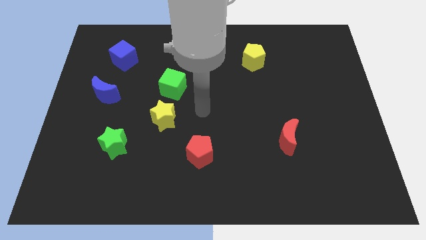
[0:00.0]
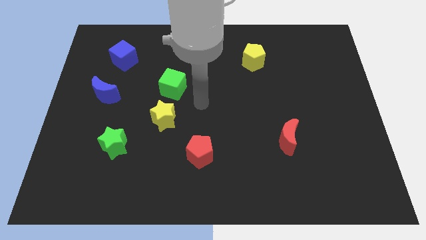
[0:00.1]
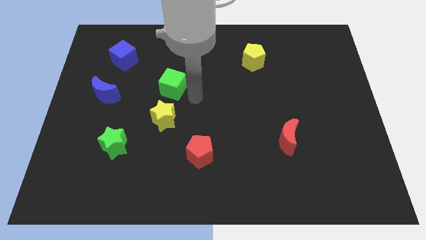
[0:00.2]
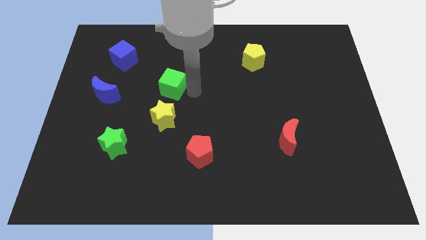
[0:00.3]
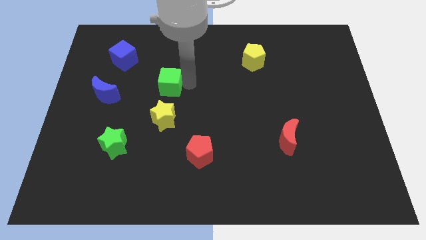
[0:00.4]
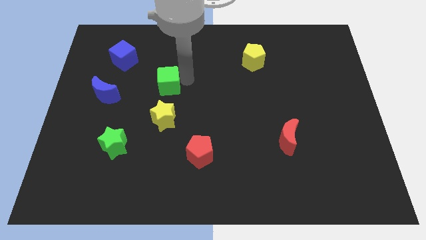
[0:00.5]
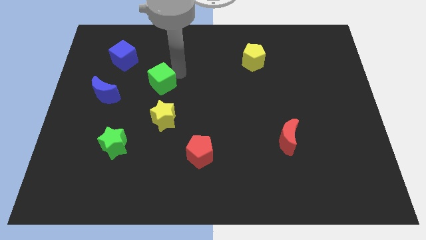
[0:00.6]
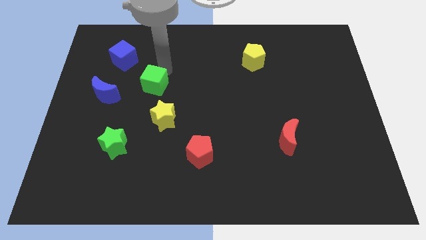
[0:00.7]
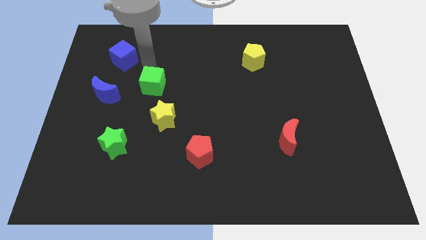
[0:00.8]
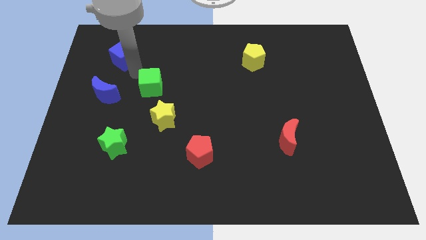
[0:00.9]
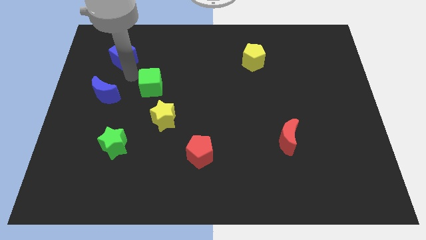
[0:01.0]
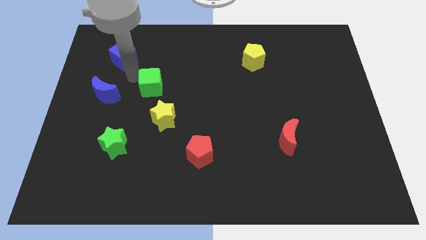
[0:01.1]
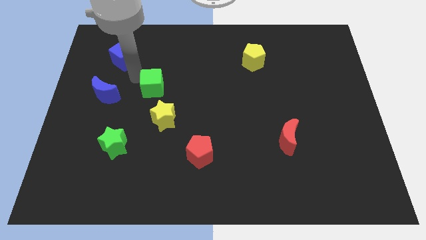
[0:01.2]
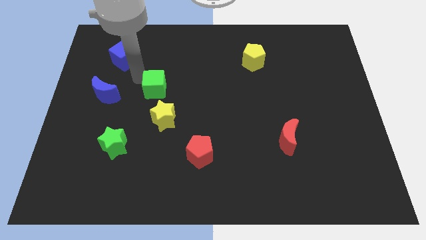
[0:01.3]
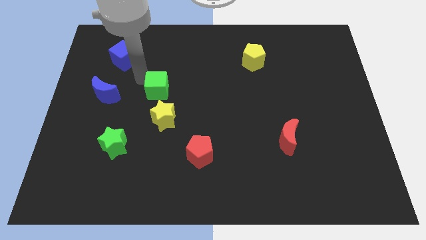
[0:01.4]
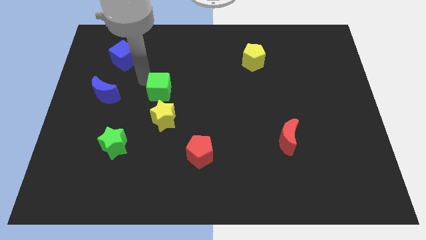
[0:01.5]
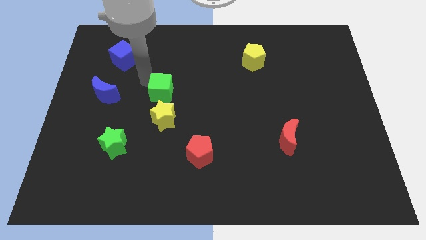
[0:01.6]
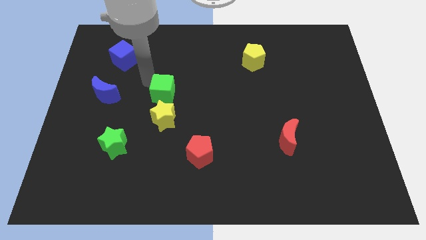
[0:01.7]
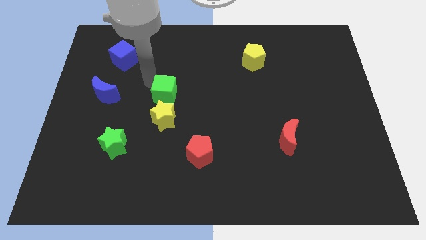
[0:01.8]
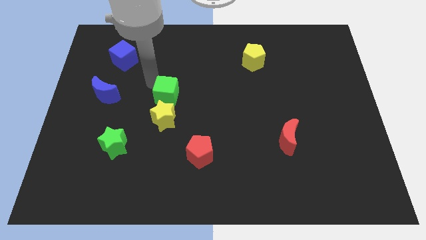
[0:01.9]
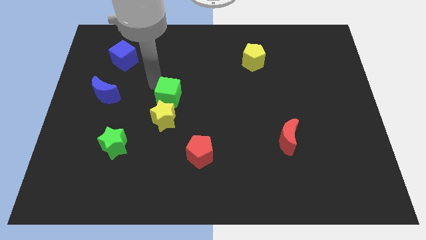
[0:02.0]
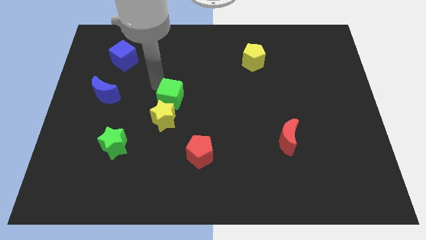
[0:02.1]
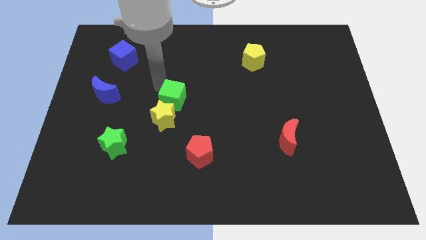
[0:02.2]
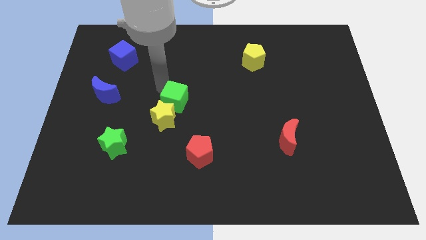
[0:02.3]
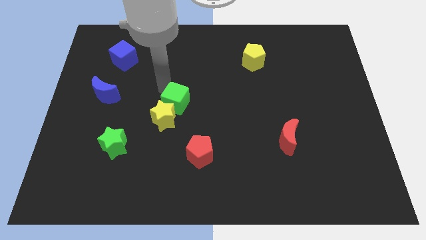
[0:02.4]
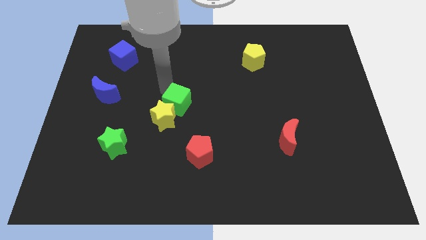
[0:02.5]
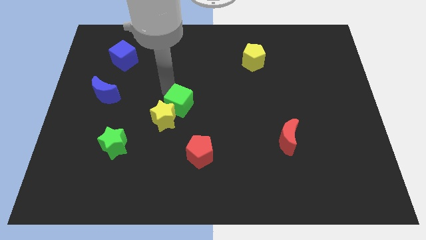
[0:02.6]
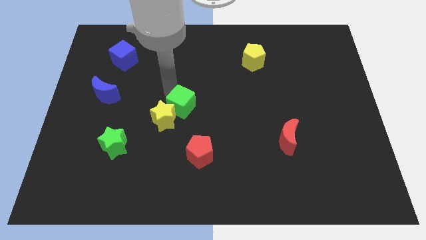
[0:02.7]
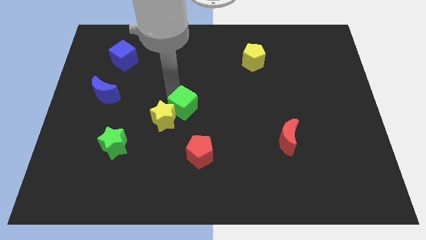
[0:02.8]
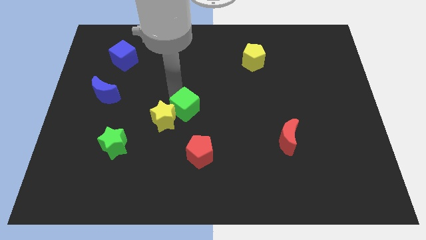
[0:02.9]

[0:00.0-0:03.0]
slide the green cube downwards and to the right a bit

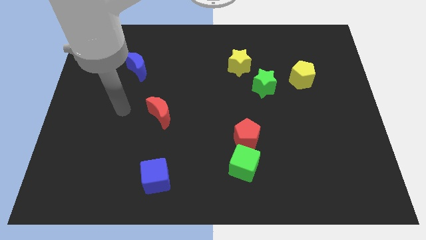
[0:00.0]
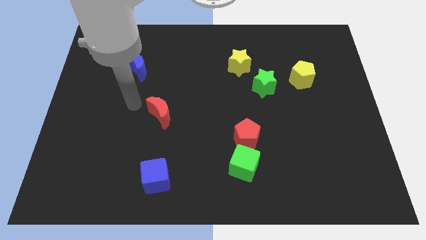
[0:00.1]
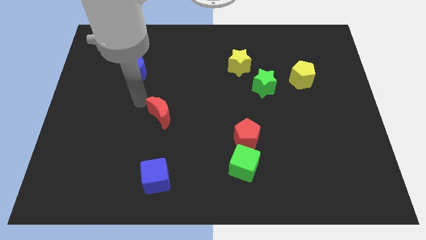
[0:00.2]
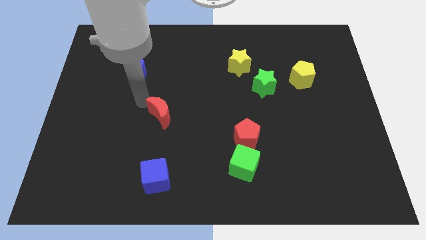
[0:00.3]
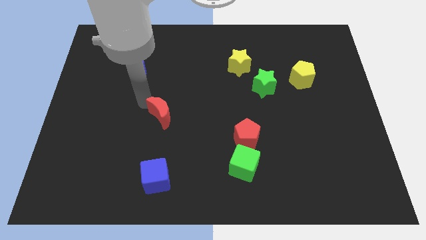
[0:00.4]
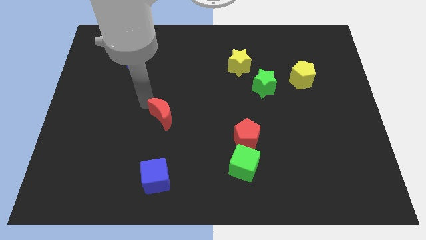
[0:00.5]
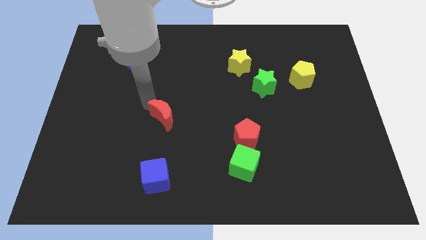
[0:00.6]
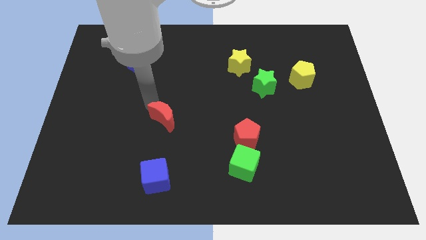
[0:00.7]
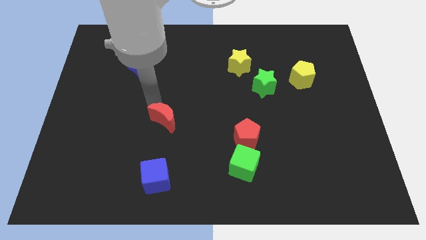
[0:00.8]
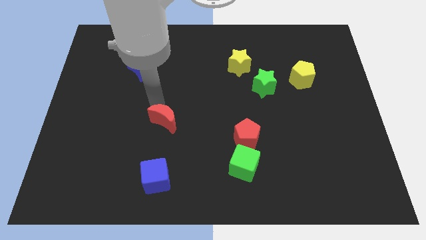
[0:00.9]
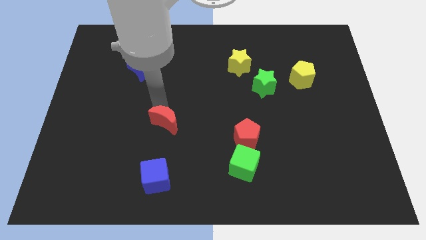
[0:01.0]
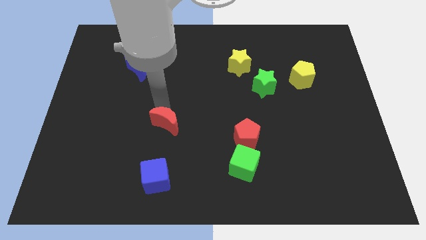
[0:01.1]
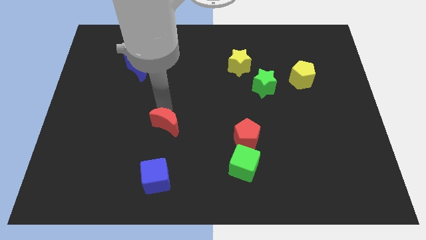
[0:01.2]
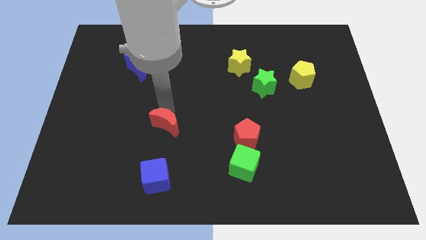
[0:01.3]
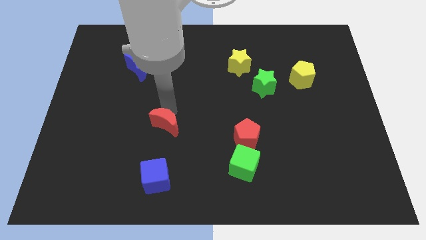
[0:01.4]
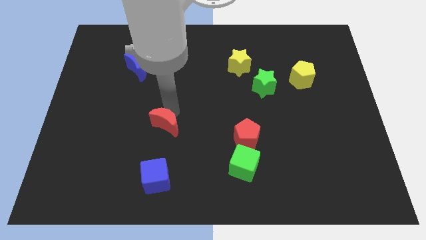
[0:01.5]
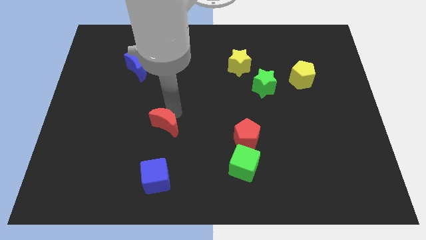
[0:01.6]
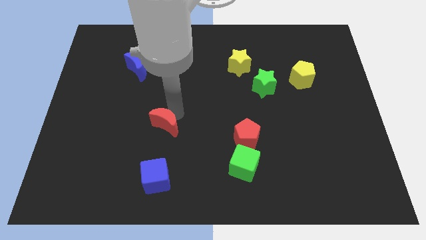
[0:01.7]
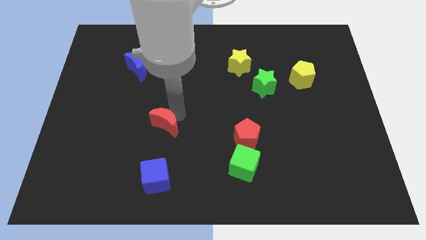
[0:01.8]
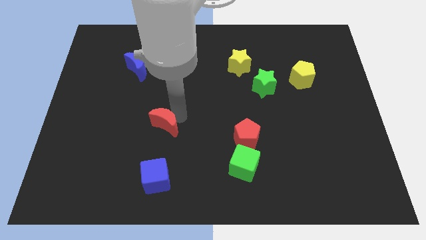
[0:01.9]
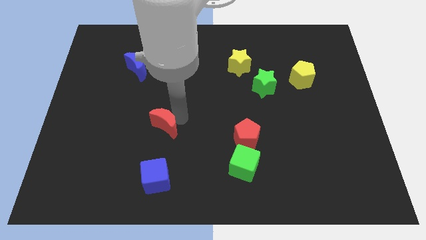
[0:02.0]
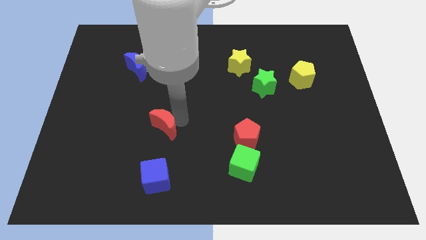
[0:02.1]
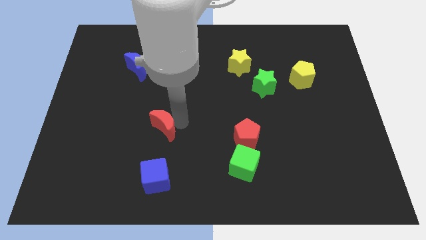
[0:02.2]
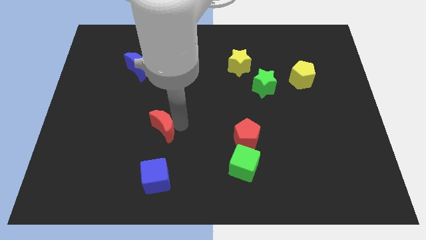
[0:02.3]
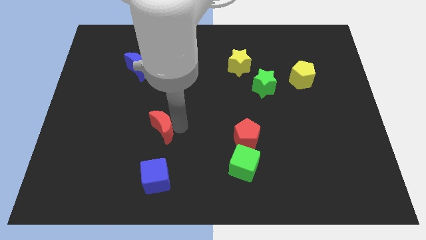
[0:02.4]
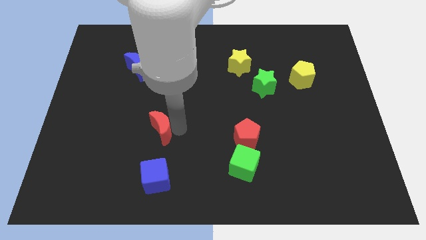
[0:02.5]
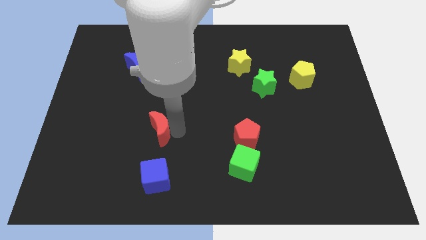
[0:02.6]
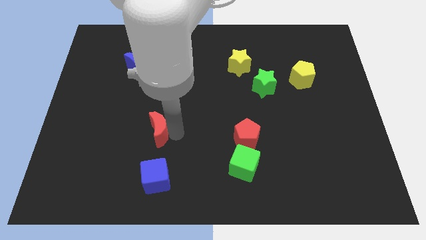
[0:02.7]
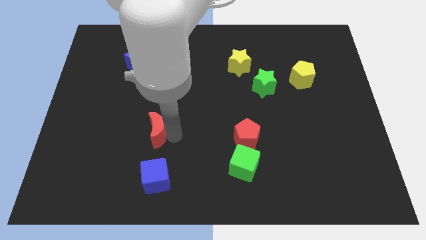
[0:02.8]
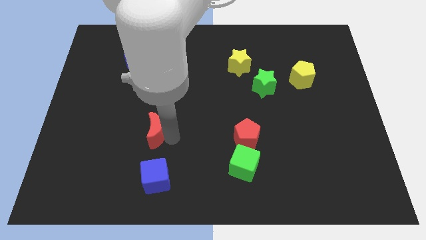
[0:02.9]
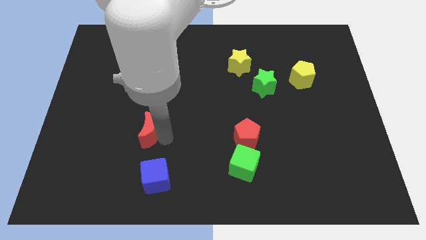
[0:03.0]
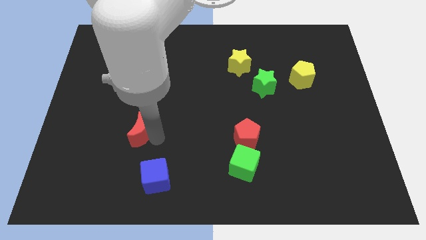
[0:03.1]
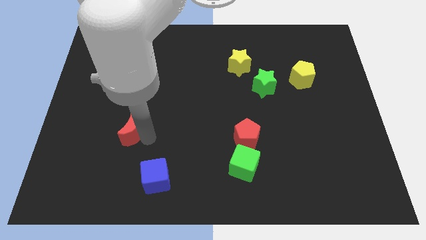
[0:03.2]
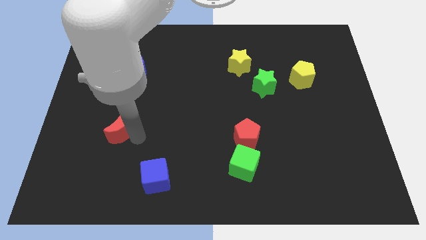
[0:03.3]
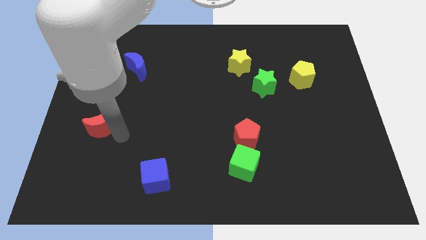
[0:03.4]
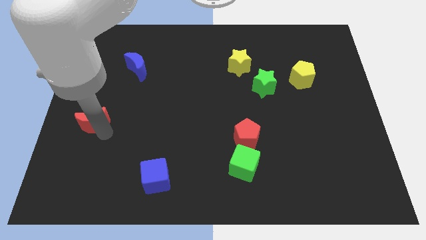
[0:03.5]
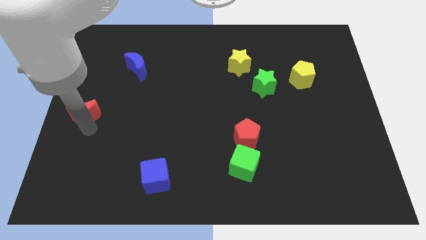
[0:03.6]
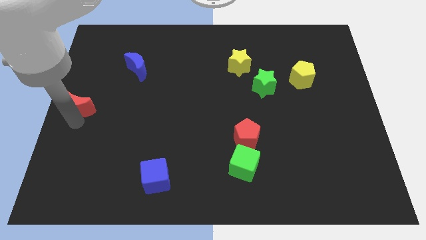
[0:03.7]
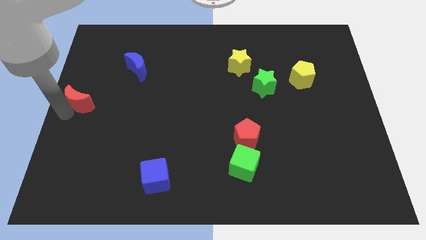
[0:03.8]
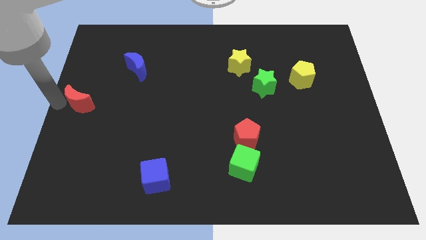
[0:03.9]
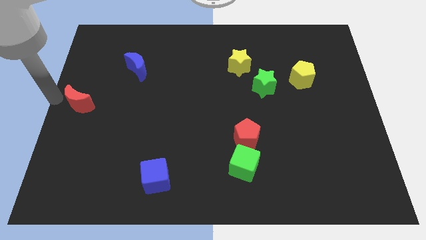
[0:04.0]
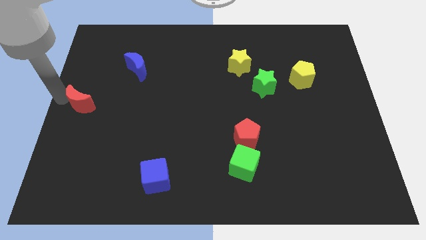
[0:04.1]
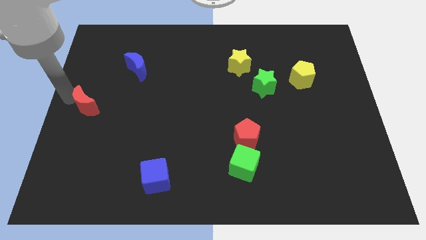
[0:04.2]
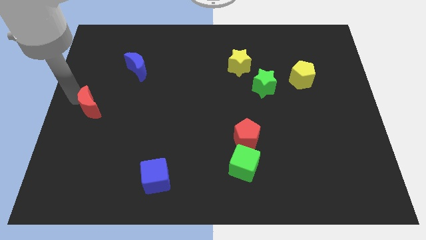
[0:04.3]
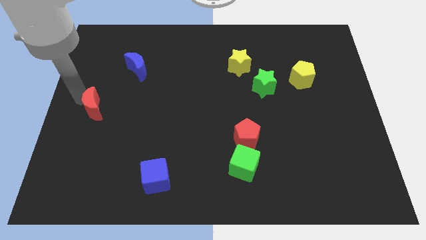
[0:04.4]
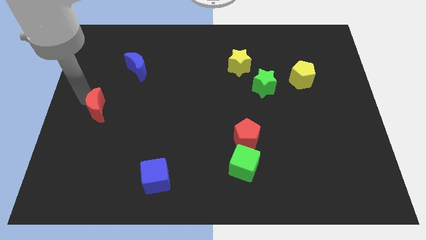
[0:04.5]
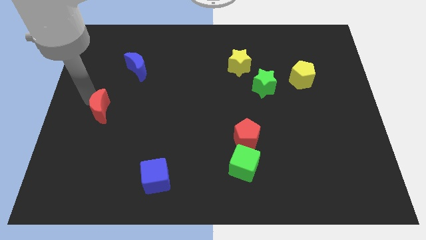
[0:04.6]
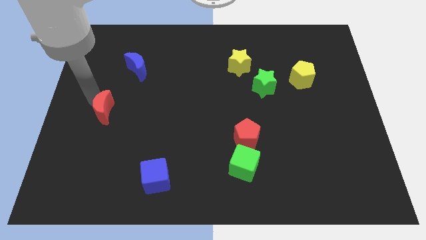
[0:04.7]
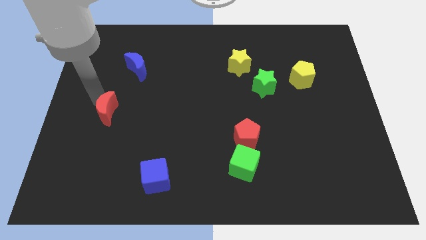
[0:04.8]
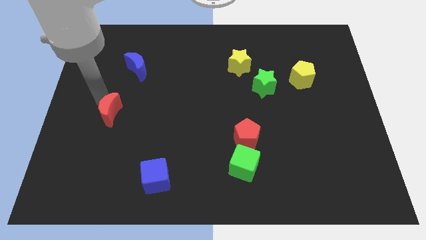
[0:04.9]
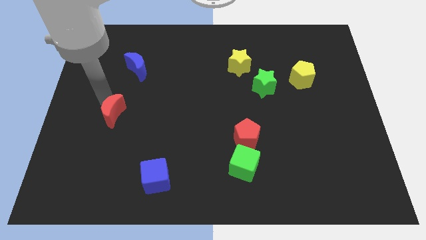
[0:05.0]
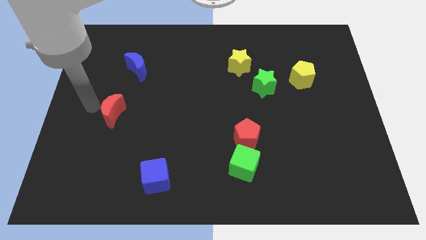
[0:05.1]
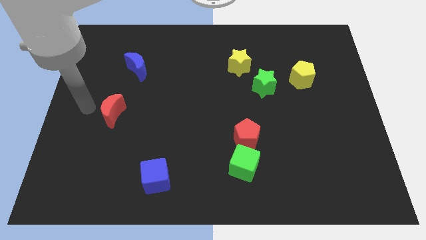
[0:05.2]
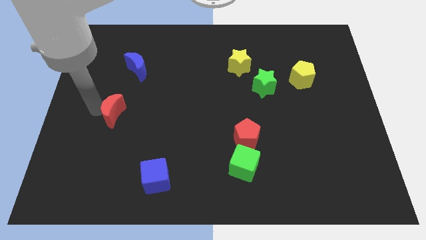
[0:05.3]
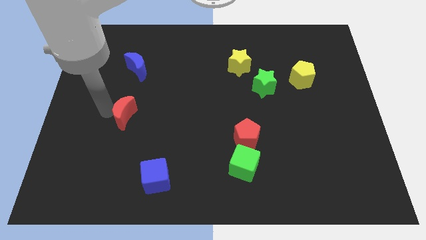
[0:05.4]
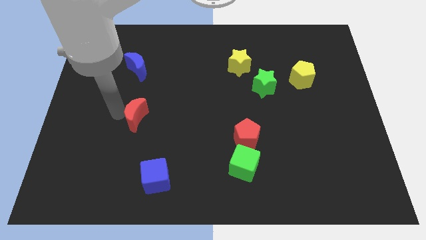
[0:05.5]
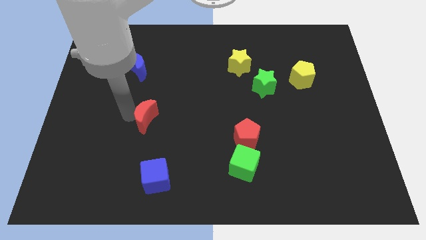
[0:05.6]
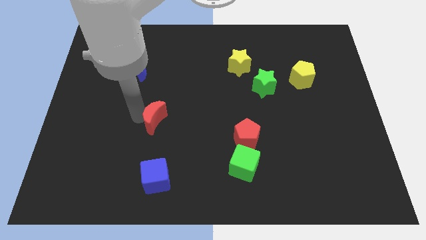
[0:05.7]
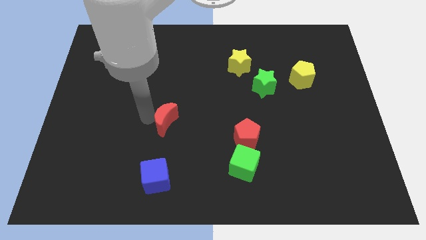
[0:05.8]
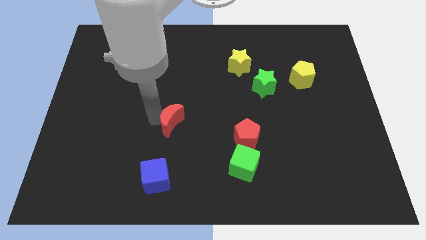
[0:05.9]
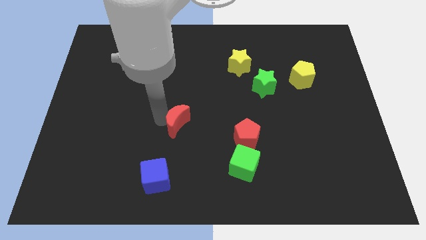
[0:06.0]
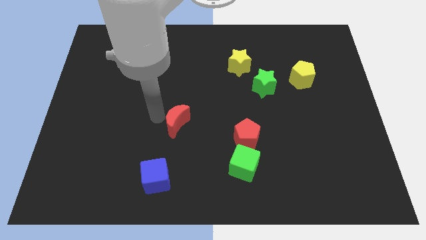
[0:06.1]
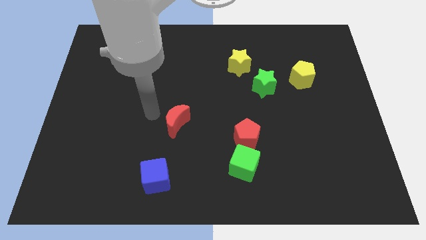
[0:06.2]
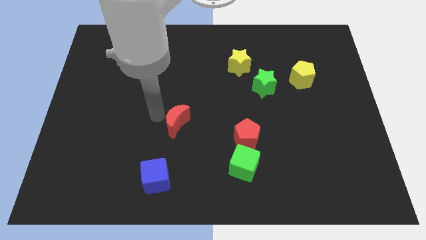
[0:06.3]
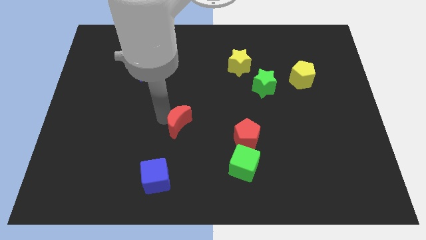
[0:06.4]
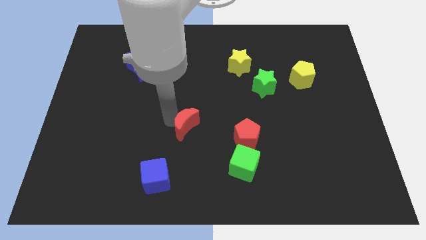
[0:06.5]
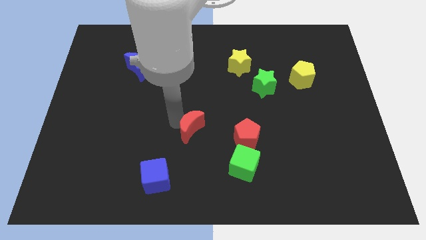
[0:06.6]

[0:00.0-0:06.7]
move the red moon a bit down and then right
